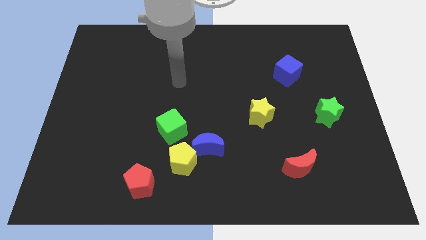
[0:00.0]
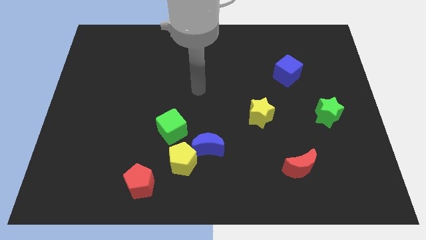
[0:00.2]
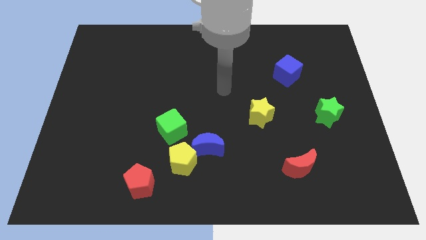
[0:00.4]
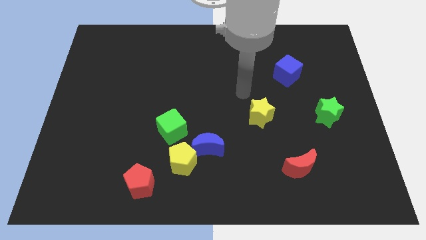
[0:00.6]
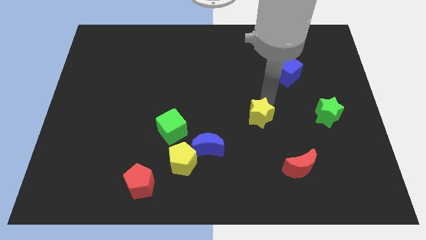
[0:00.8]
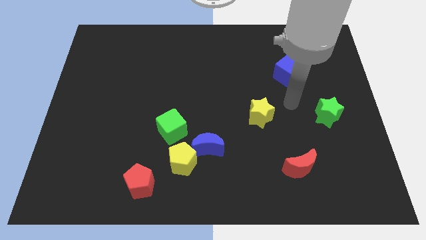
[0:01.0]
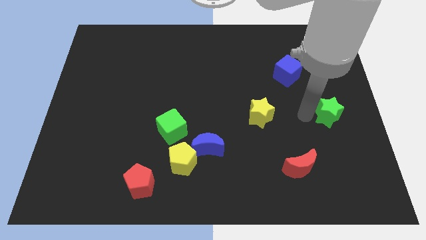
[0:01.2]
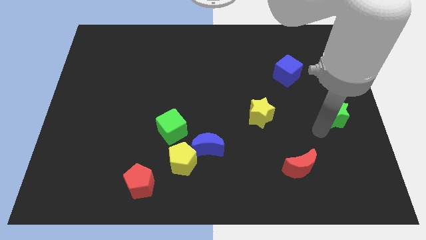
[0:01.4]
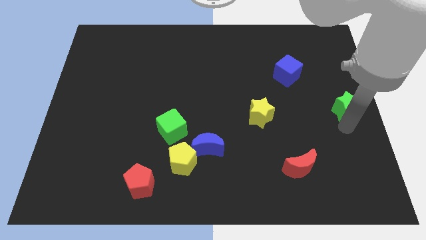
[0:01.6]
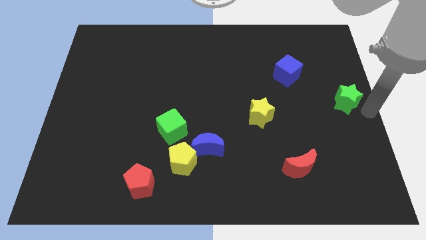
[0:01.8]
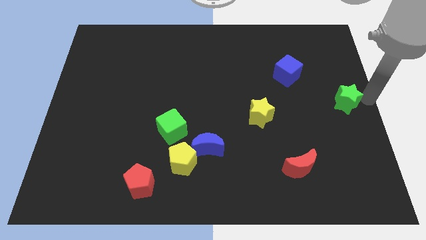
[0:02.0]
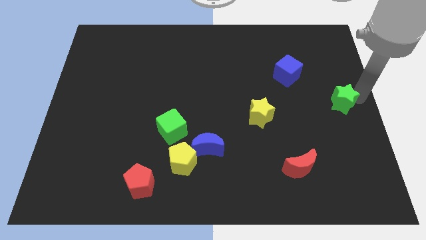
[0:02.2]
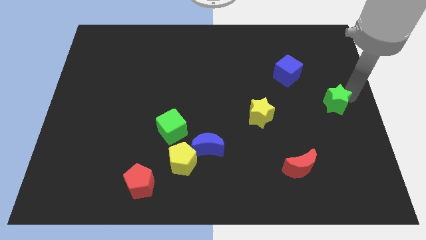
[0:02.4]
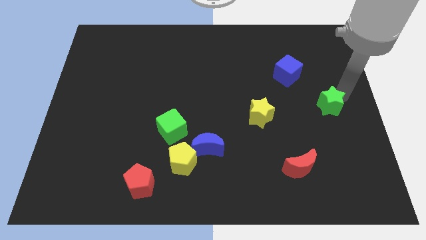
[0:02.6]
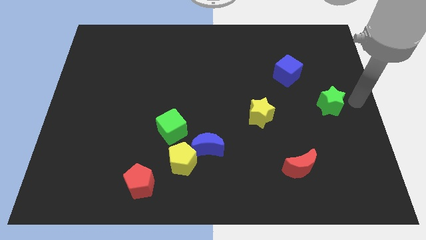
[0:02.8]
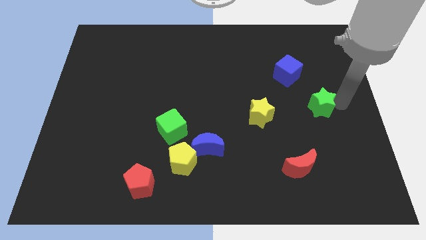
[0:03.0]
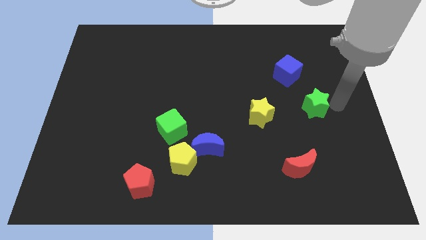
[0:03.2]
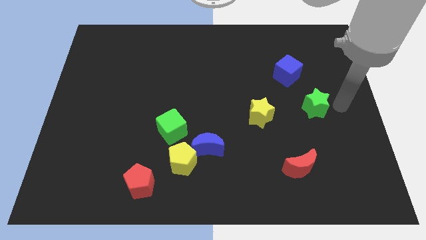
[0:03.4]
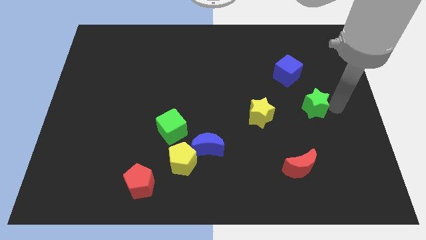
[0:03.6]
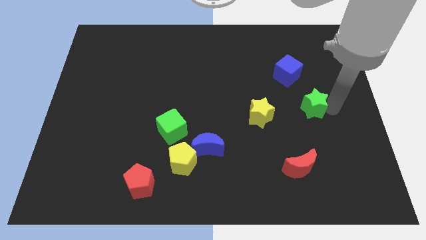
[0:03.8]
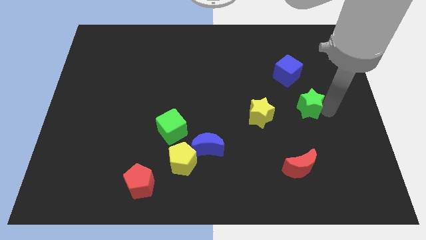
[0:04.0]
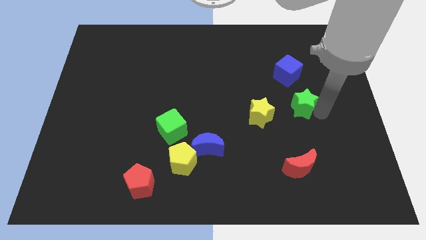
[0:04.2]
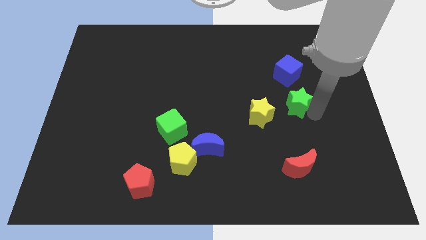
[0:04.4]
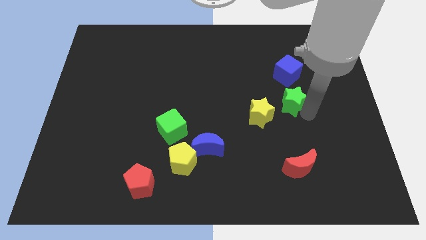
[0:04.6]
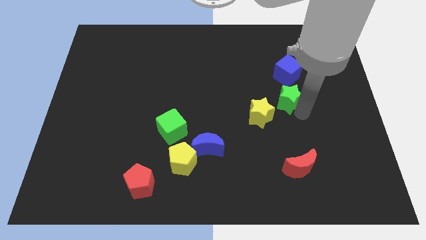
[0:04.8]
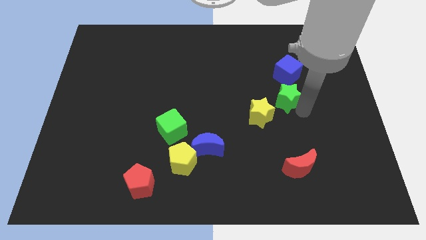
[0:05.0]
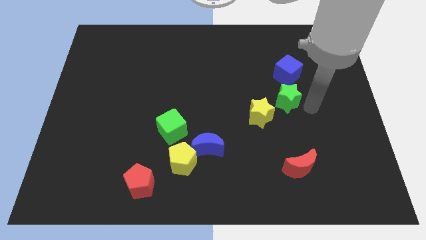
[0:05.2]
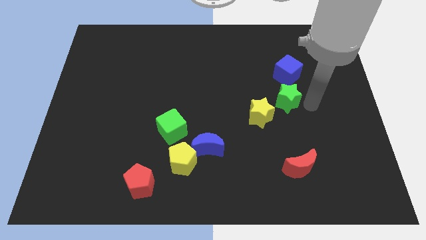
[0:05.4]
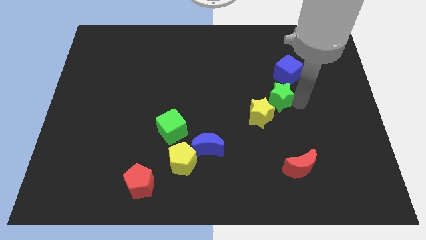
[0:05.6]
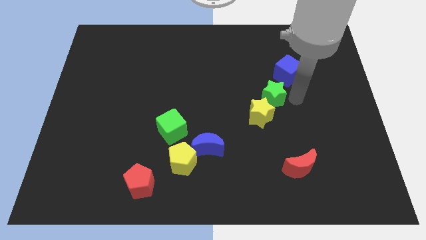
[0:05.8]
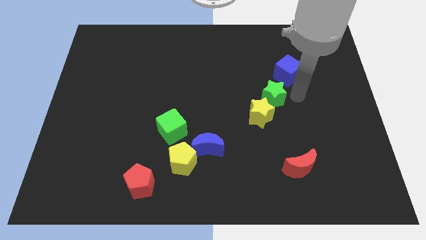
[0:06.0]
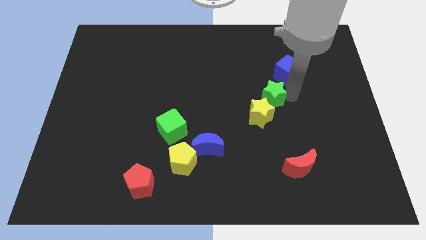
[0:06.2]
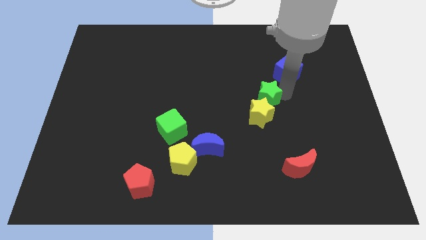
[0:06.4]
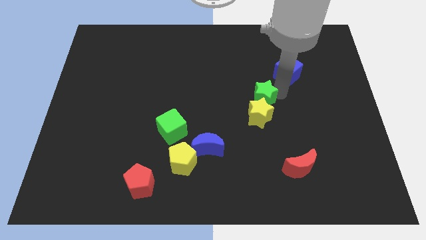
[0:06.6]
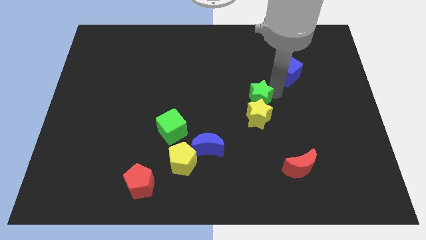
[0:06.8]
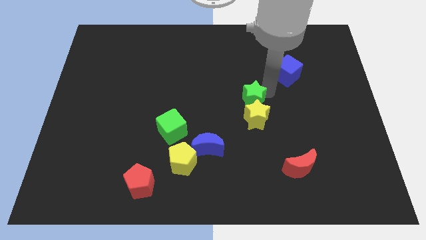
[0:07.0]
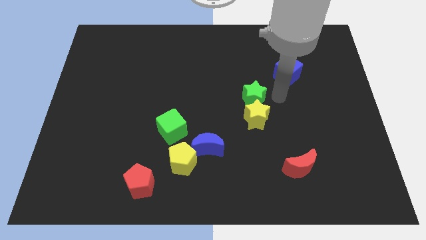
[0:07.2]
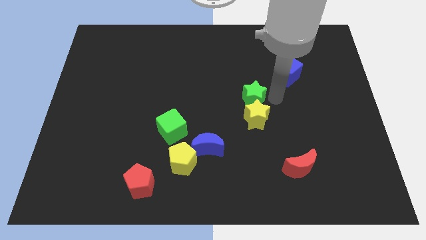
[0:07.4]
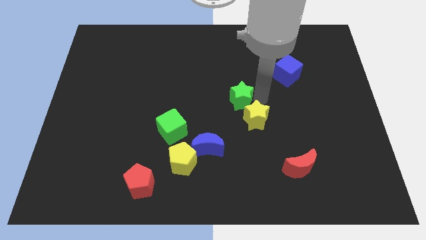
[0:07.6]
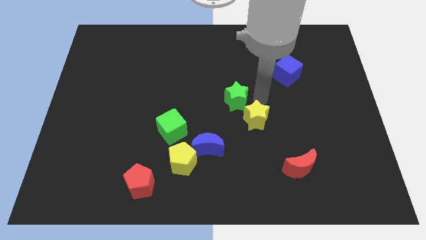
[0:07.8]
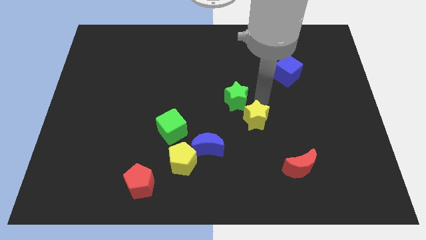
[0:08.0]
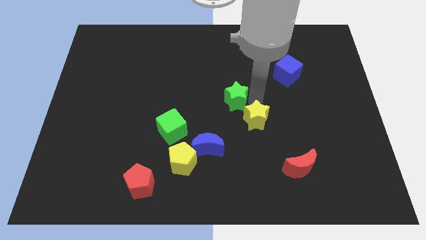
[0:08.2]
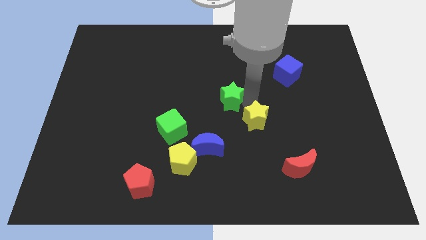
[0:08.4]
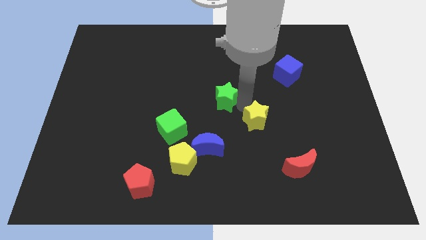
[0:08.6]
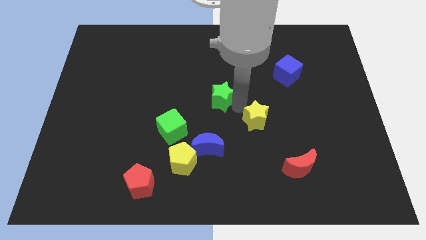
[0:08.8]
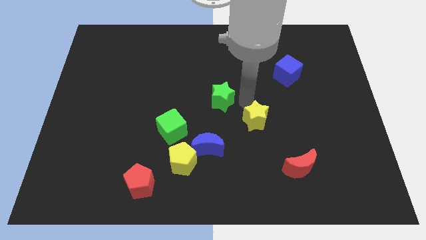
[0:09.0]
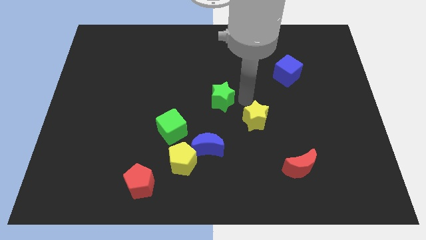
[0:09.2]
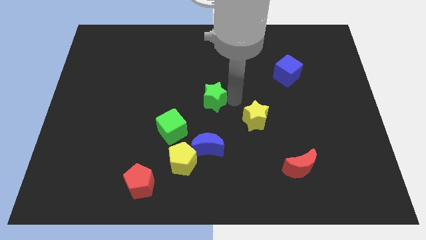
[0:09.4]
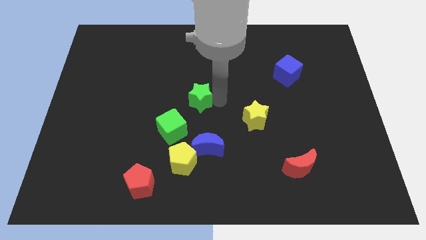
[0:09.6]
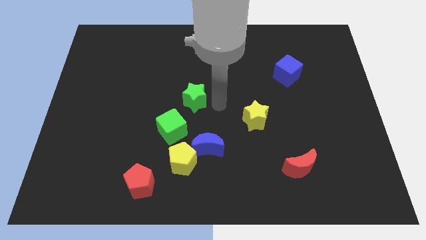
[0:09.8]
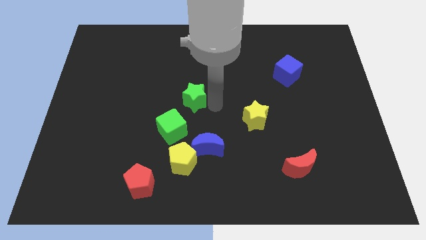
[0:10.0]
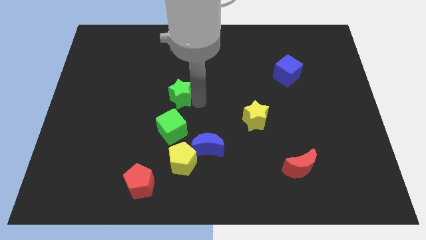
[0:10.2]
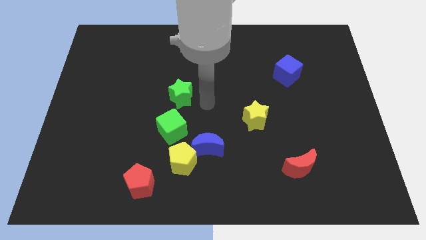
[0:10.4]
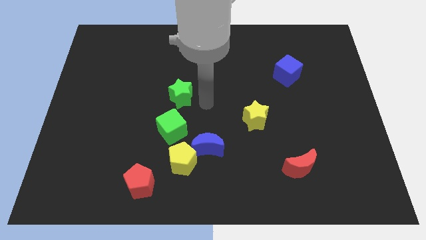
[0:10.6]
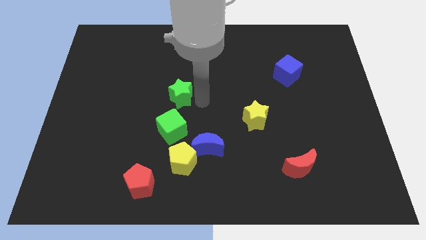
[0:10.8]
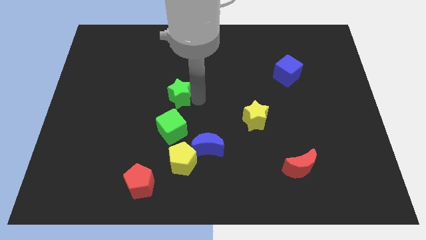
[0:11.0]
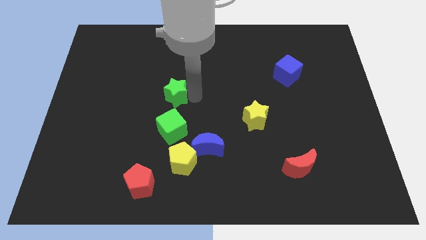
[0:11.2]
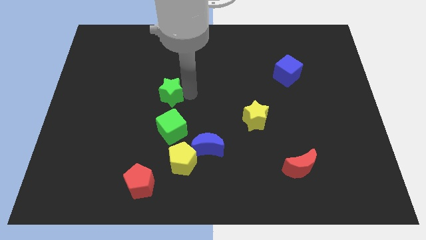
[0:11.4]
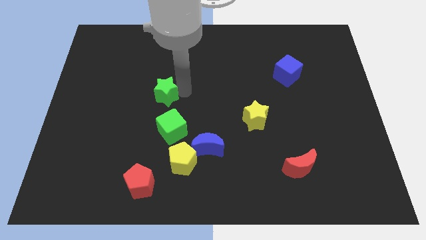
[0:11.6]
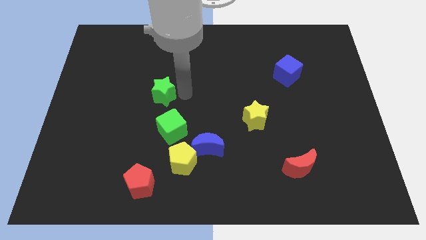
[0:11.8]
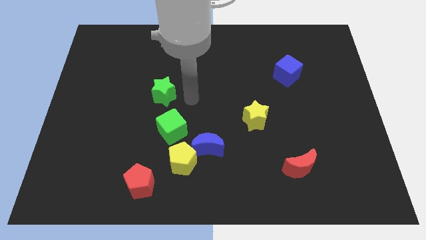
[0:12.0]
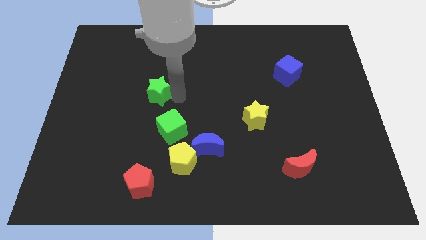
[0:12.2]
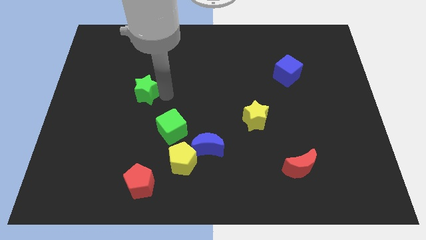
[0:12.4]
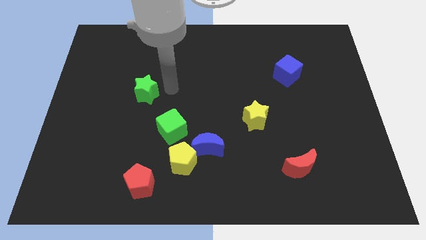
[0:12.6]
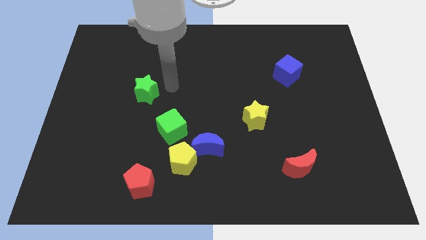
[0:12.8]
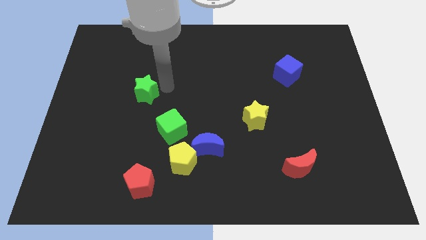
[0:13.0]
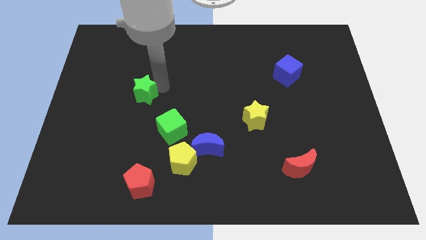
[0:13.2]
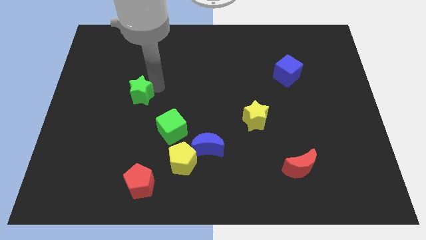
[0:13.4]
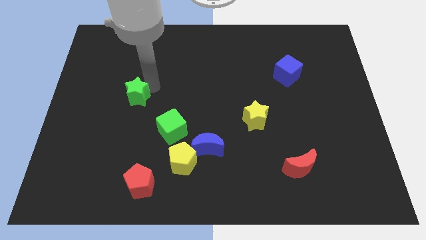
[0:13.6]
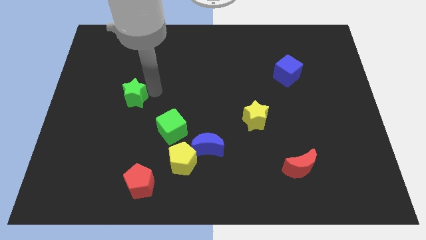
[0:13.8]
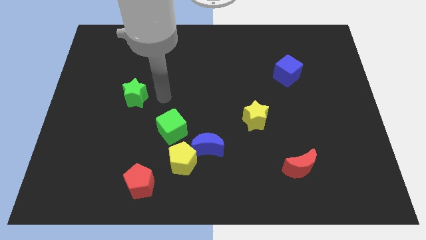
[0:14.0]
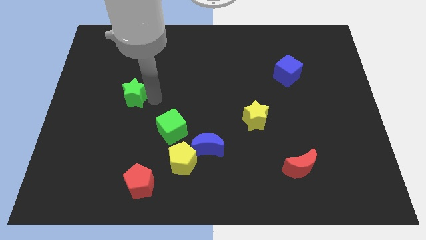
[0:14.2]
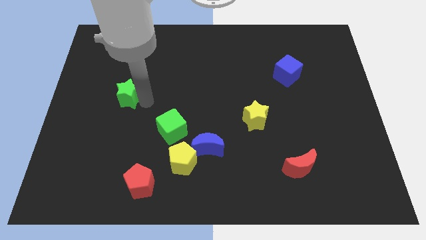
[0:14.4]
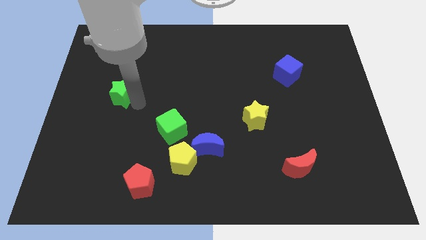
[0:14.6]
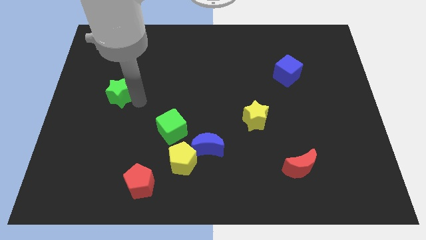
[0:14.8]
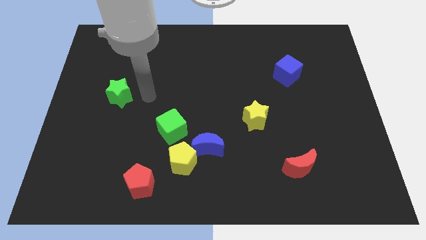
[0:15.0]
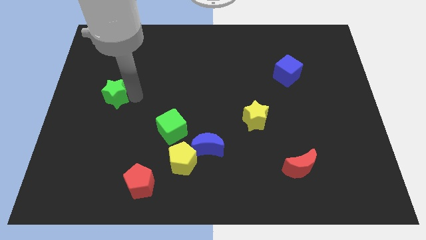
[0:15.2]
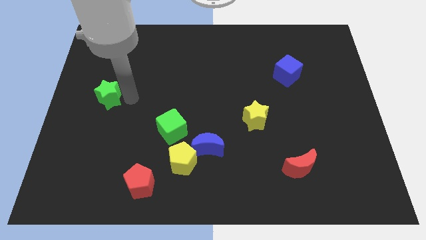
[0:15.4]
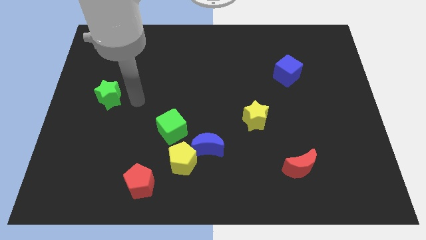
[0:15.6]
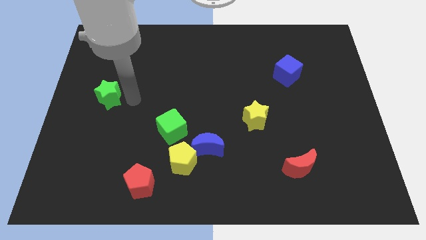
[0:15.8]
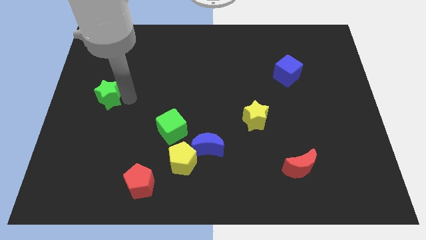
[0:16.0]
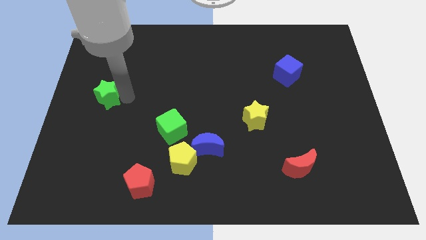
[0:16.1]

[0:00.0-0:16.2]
push the green star to the left side of the board
